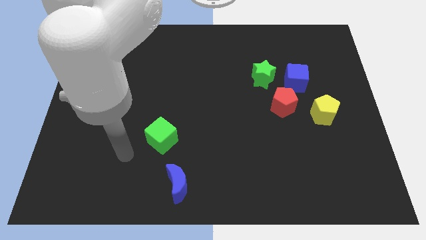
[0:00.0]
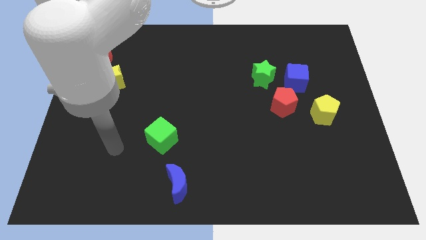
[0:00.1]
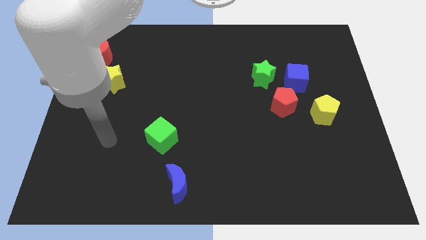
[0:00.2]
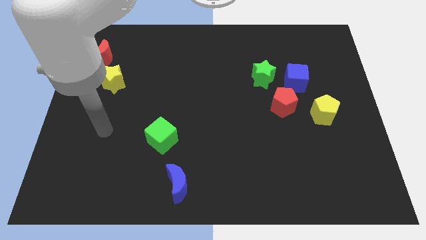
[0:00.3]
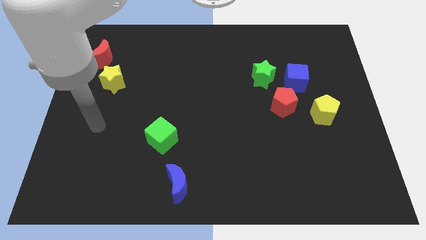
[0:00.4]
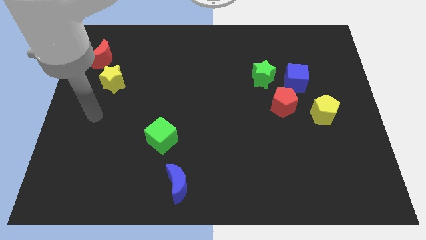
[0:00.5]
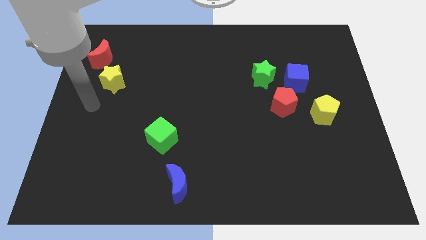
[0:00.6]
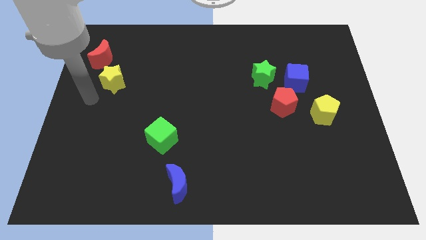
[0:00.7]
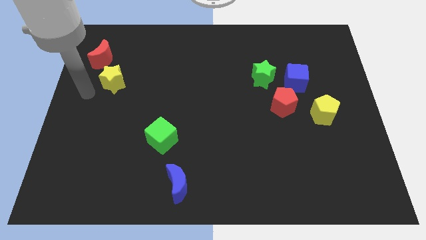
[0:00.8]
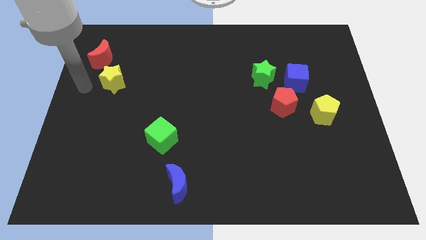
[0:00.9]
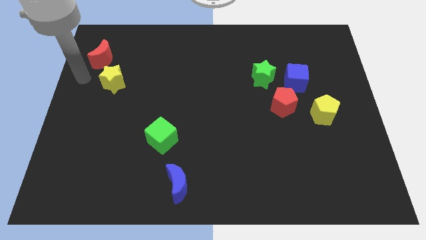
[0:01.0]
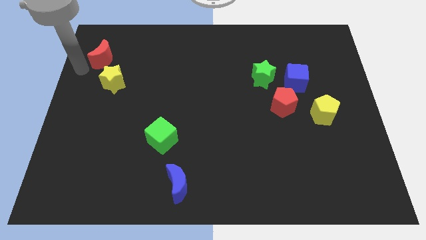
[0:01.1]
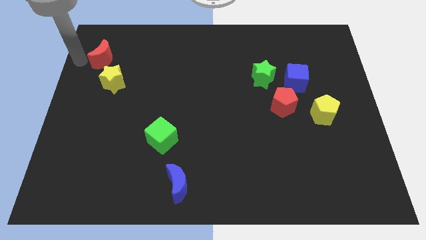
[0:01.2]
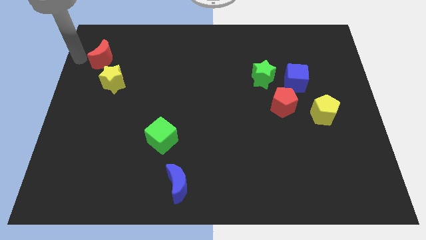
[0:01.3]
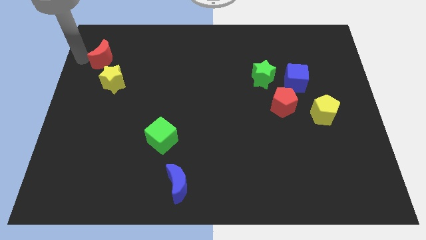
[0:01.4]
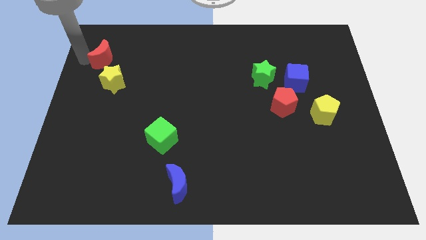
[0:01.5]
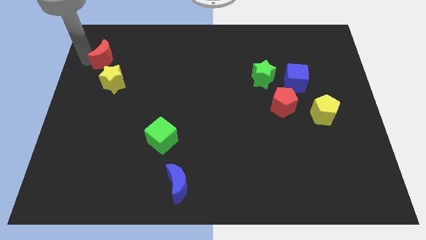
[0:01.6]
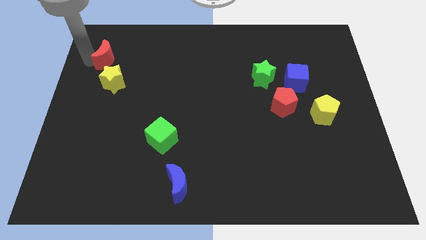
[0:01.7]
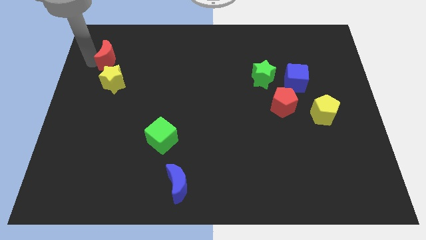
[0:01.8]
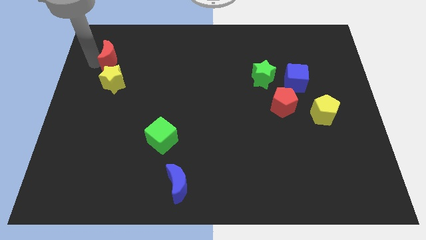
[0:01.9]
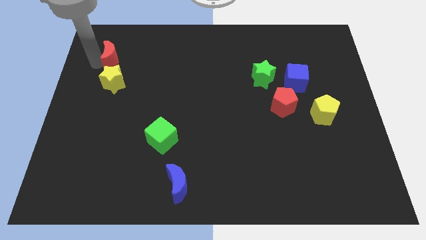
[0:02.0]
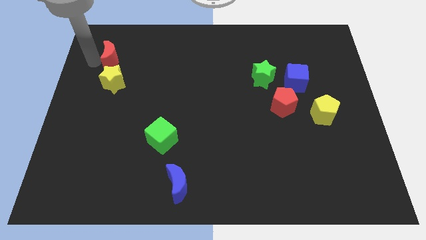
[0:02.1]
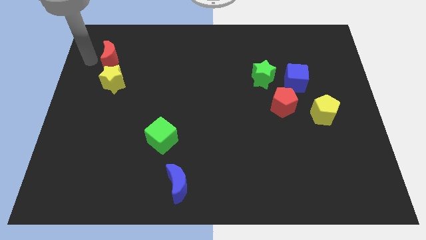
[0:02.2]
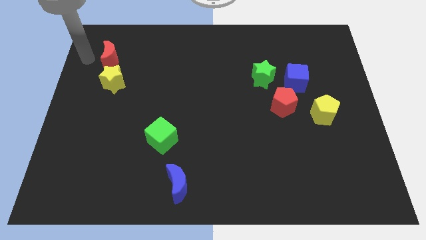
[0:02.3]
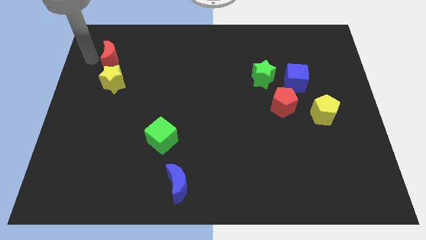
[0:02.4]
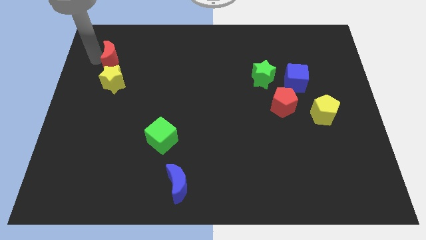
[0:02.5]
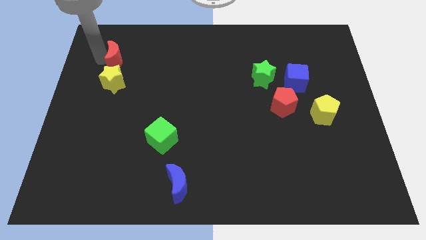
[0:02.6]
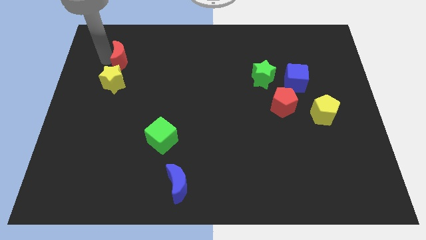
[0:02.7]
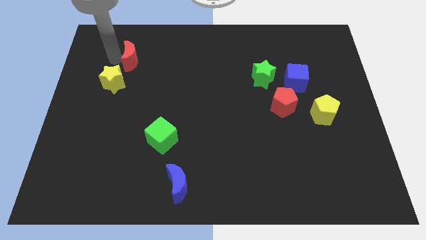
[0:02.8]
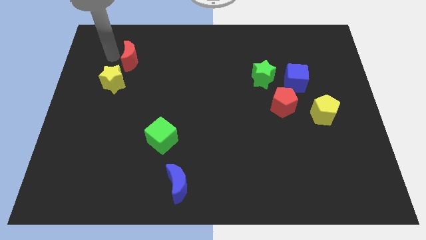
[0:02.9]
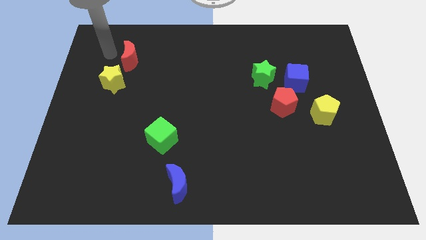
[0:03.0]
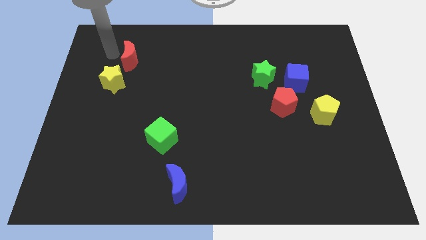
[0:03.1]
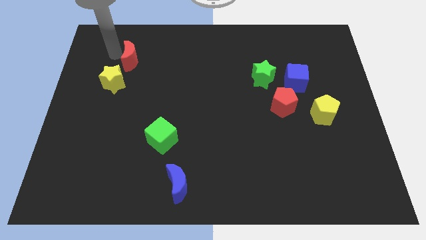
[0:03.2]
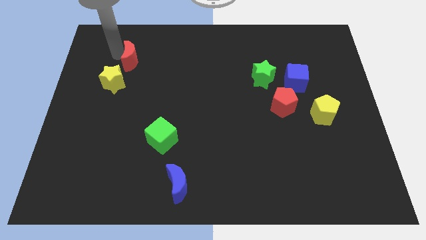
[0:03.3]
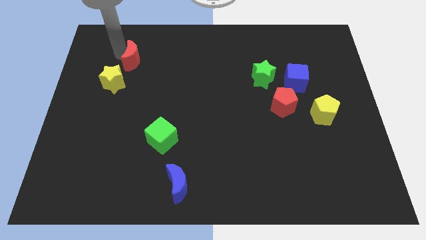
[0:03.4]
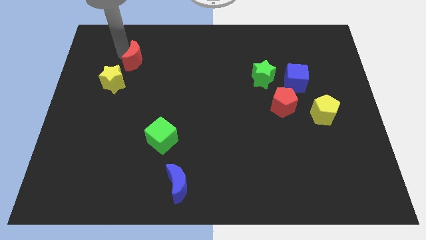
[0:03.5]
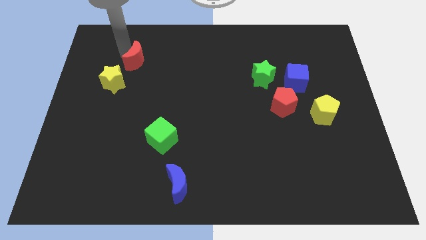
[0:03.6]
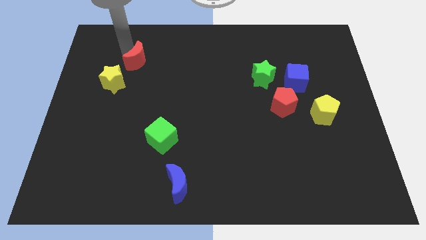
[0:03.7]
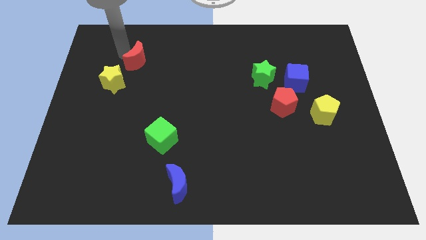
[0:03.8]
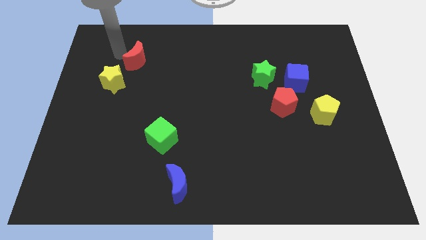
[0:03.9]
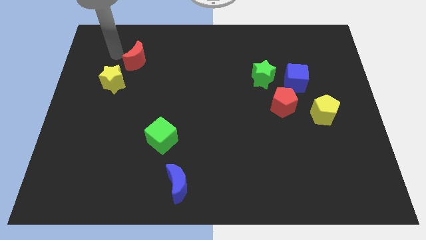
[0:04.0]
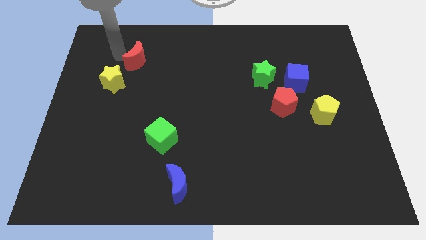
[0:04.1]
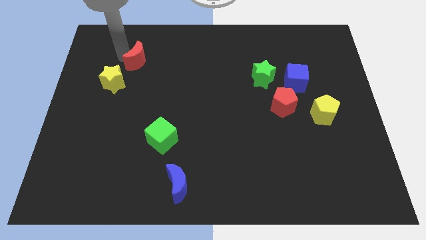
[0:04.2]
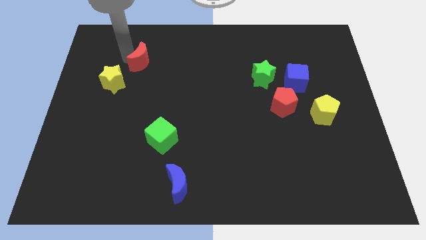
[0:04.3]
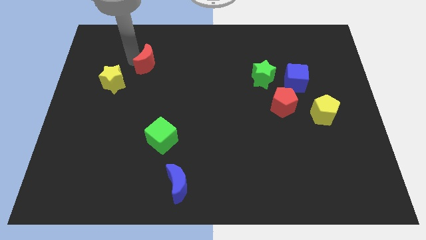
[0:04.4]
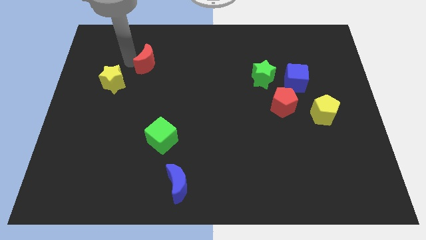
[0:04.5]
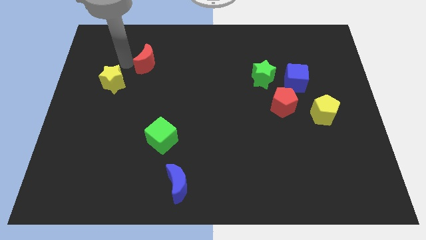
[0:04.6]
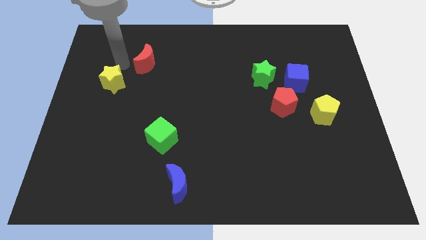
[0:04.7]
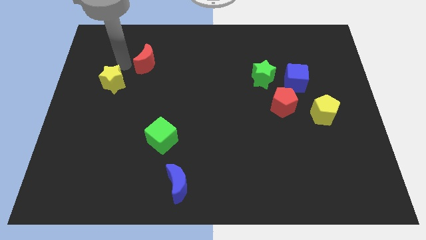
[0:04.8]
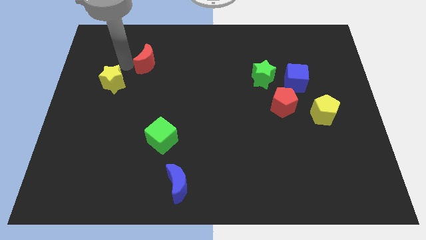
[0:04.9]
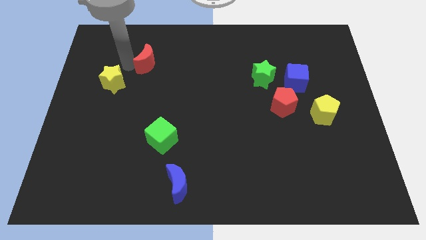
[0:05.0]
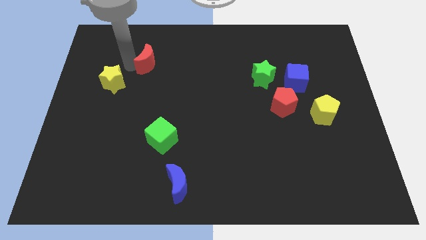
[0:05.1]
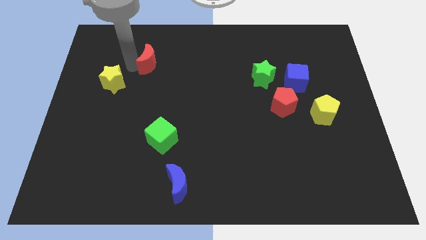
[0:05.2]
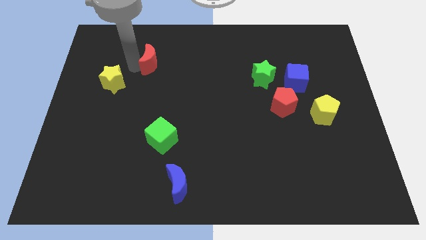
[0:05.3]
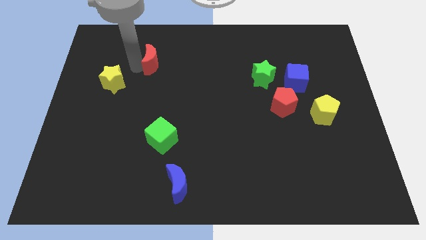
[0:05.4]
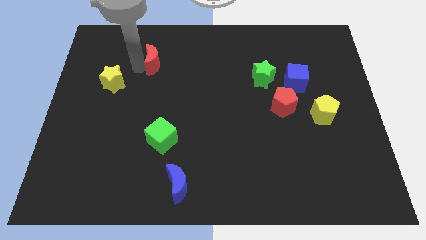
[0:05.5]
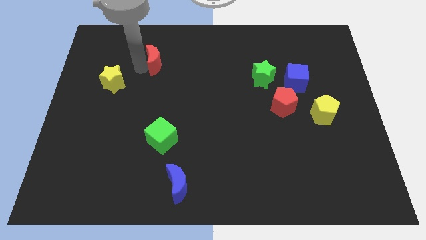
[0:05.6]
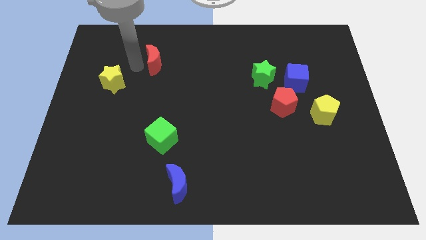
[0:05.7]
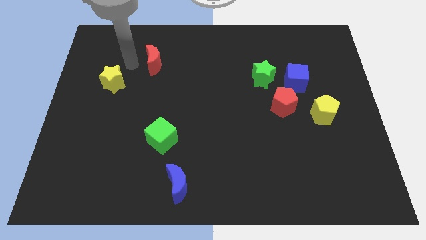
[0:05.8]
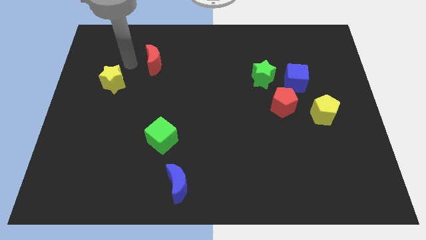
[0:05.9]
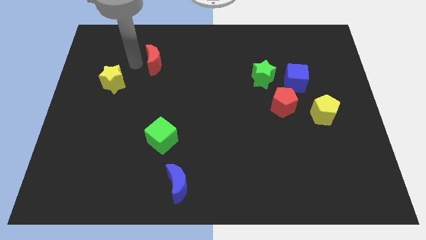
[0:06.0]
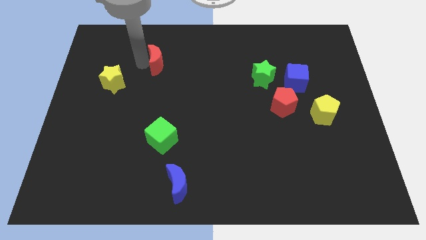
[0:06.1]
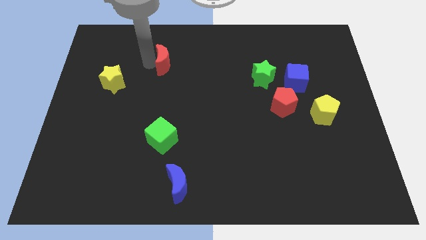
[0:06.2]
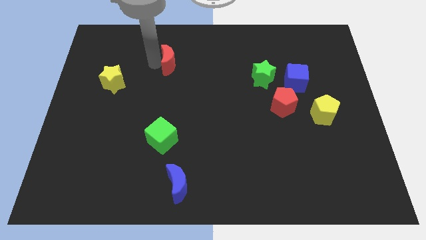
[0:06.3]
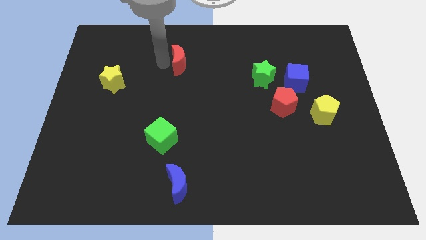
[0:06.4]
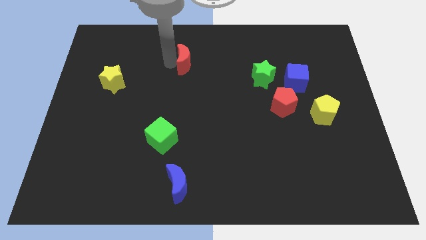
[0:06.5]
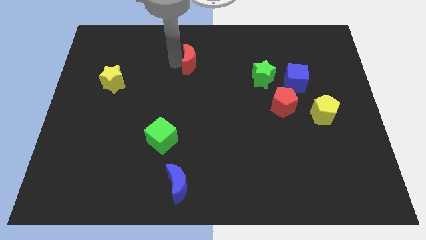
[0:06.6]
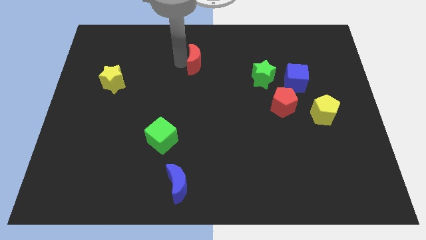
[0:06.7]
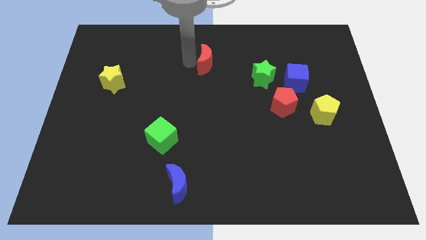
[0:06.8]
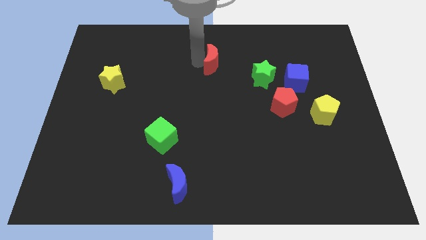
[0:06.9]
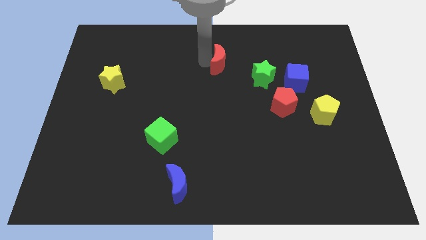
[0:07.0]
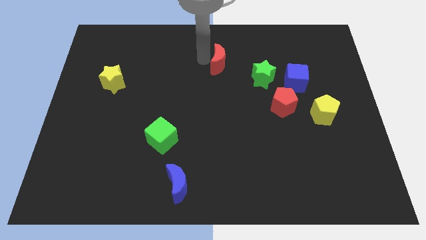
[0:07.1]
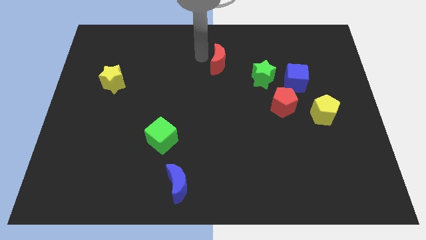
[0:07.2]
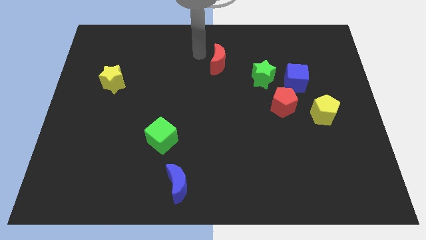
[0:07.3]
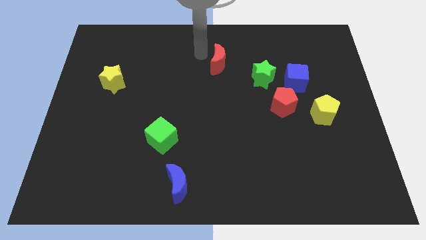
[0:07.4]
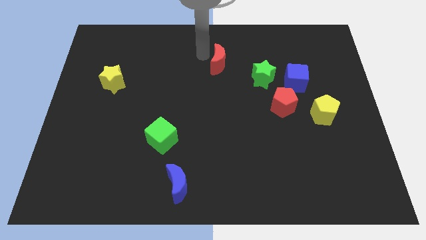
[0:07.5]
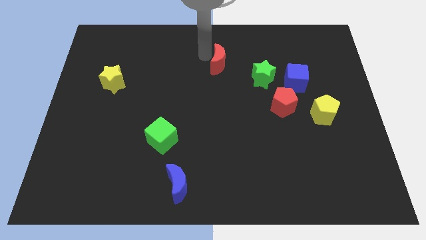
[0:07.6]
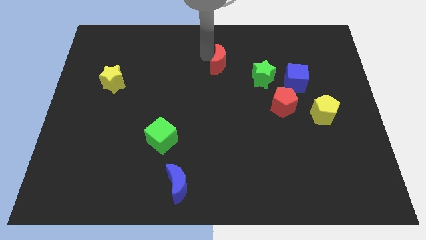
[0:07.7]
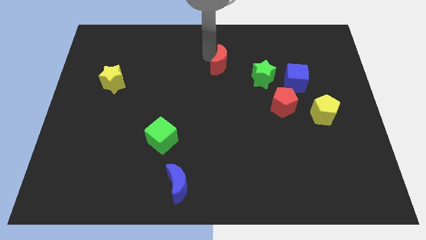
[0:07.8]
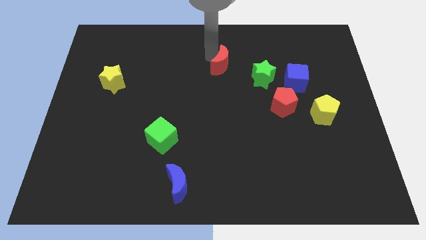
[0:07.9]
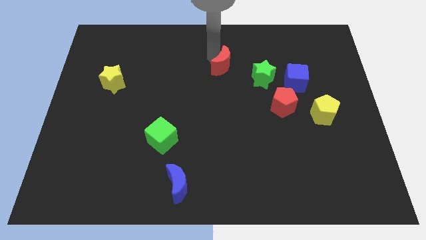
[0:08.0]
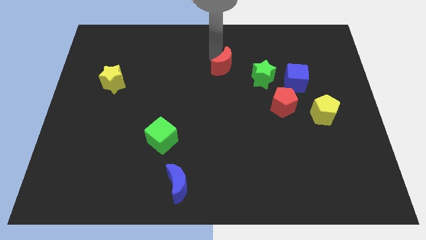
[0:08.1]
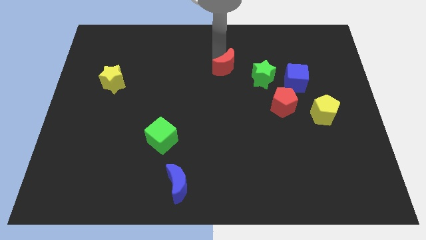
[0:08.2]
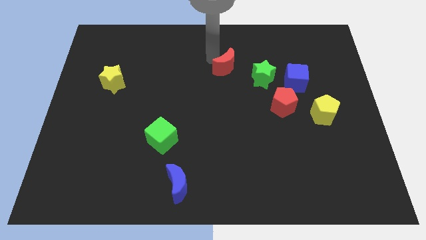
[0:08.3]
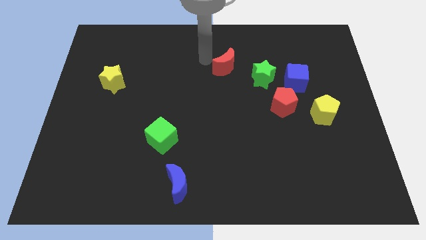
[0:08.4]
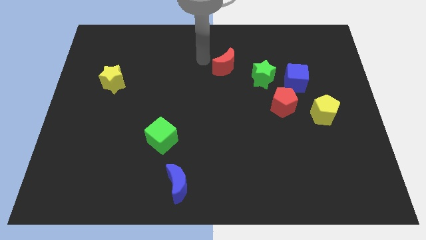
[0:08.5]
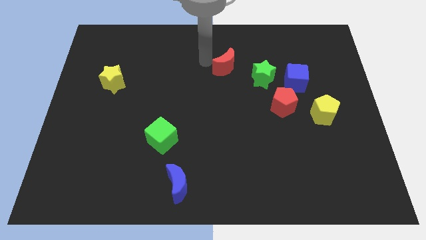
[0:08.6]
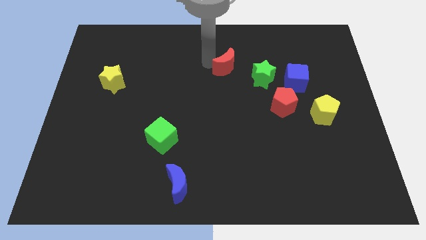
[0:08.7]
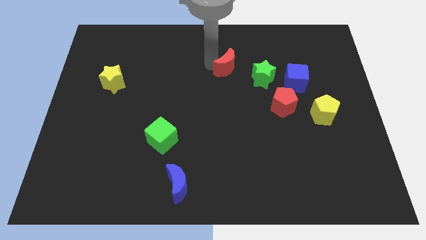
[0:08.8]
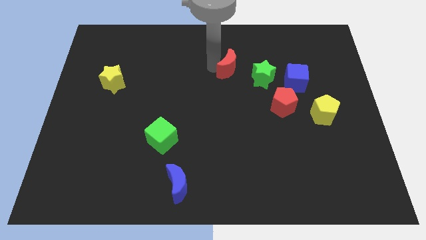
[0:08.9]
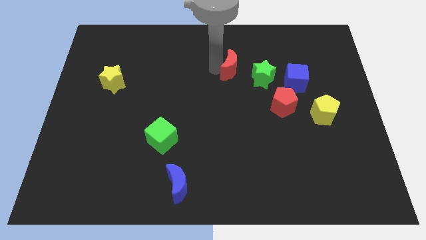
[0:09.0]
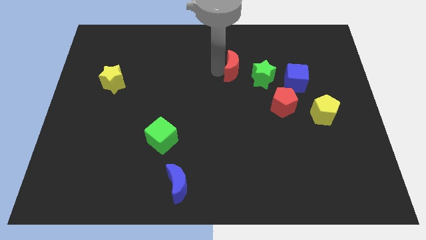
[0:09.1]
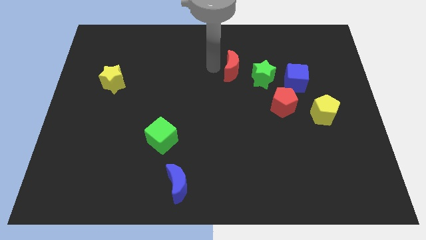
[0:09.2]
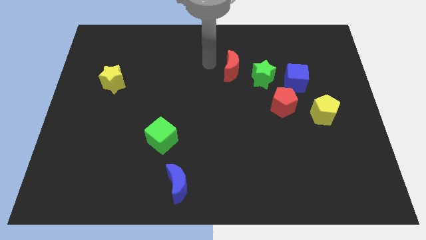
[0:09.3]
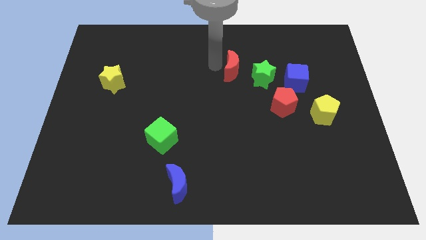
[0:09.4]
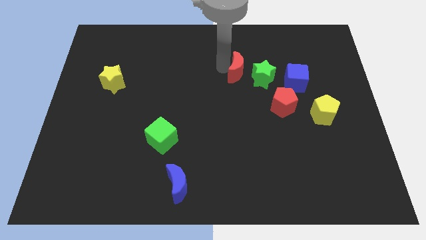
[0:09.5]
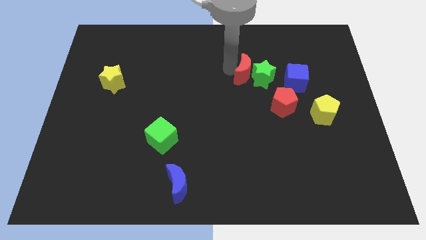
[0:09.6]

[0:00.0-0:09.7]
push the red moon close to the green star
